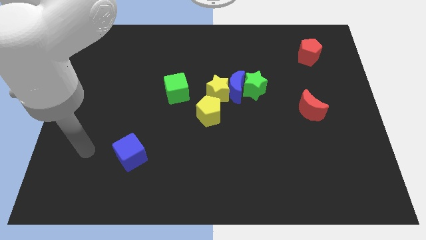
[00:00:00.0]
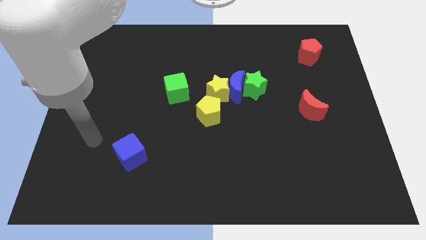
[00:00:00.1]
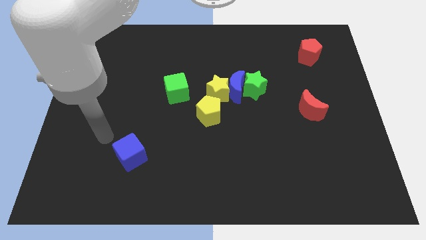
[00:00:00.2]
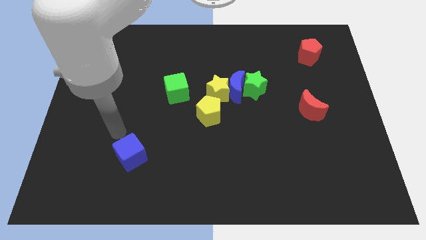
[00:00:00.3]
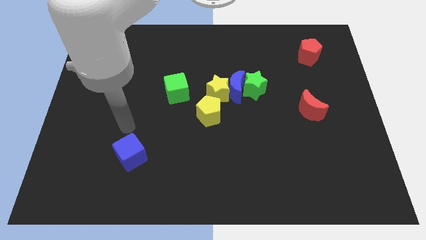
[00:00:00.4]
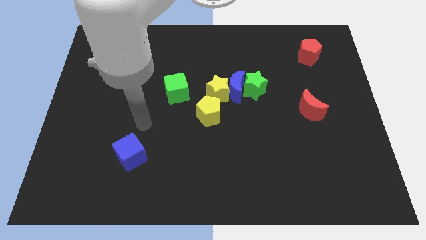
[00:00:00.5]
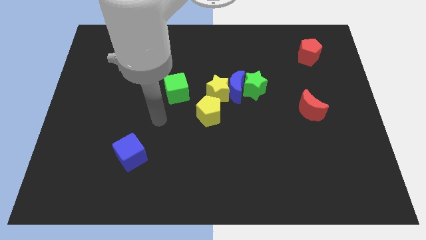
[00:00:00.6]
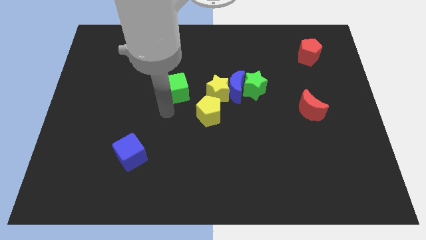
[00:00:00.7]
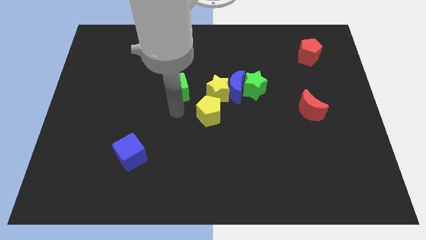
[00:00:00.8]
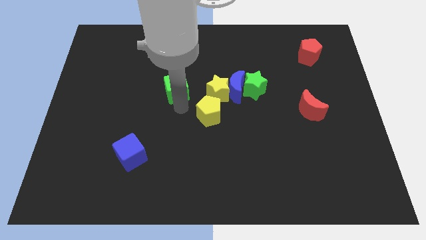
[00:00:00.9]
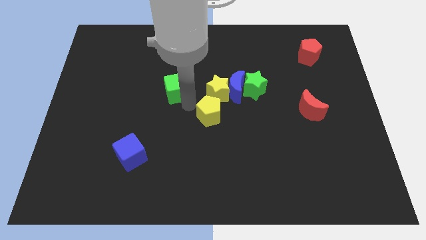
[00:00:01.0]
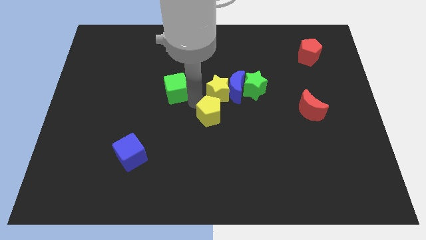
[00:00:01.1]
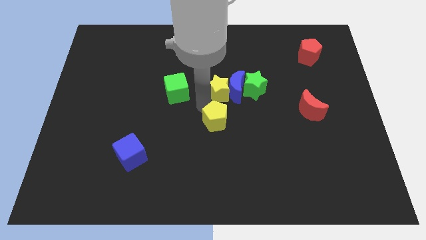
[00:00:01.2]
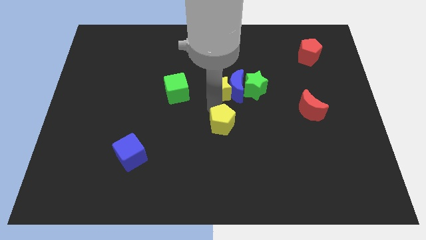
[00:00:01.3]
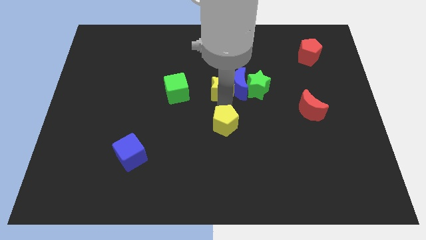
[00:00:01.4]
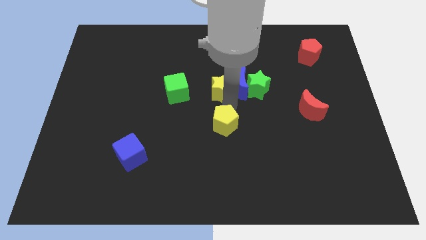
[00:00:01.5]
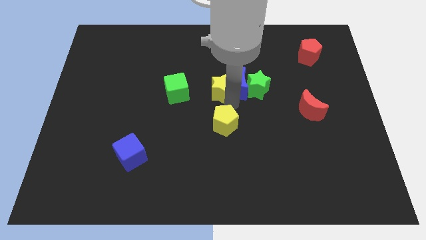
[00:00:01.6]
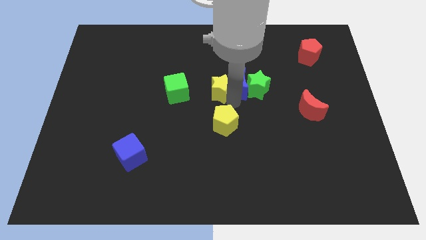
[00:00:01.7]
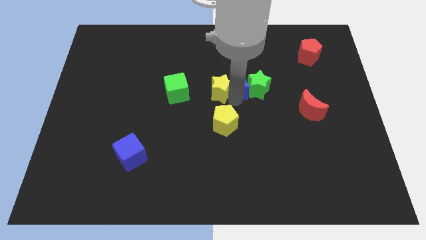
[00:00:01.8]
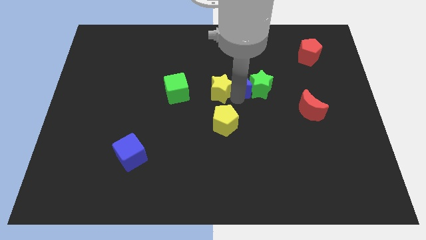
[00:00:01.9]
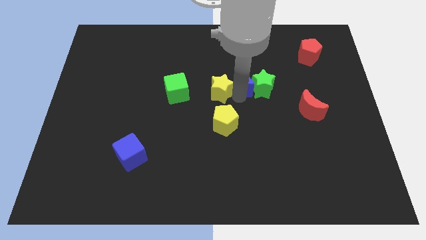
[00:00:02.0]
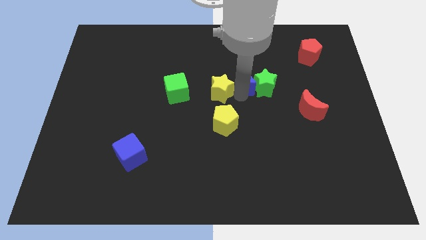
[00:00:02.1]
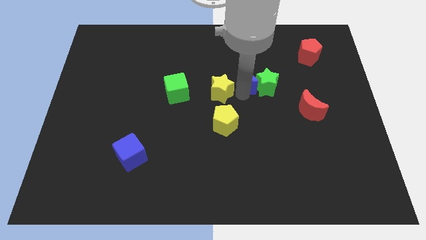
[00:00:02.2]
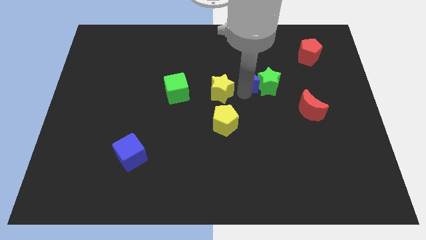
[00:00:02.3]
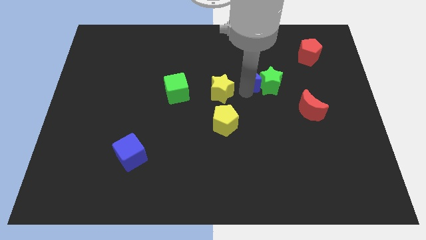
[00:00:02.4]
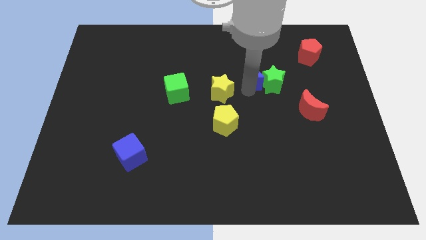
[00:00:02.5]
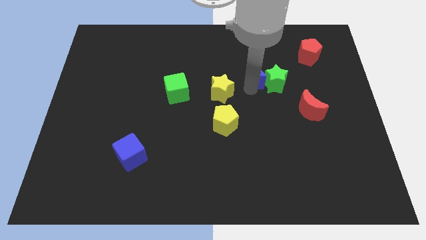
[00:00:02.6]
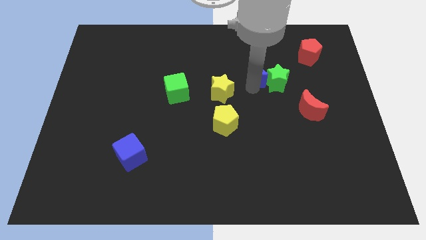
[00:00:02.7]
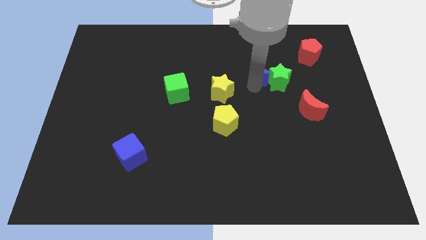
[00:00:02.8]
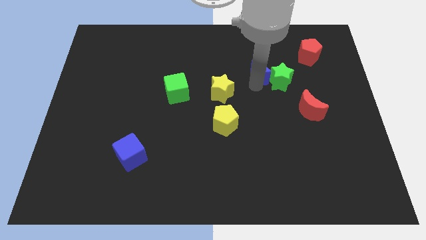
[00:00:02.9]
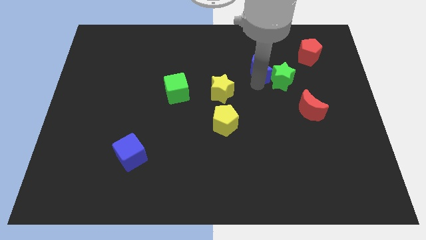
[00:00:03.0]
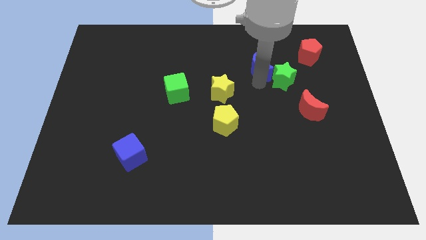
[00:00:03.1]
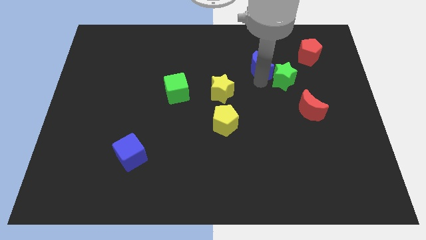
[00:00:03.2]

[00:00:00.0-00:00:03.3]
move the blue moon away from the group

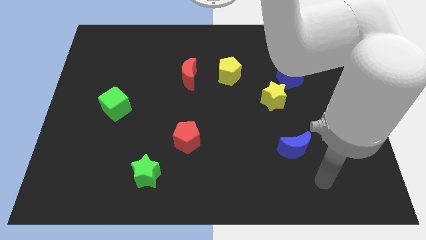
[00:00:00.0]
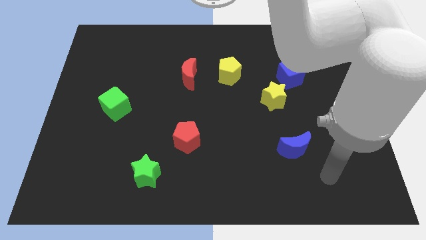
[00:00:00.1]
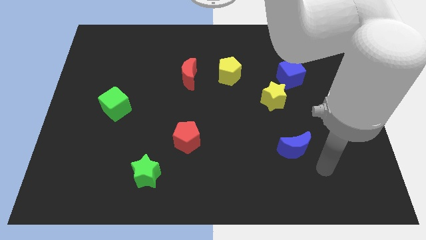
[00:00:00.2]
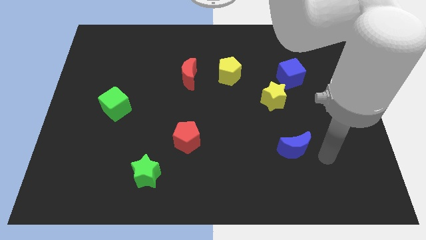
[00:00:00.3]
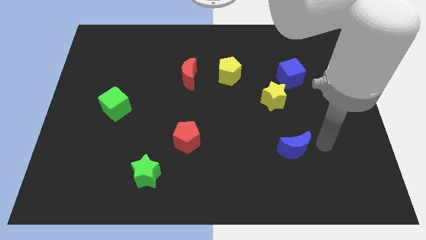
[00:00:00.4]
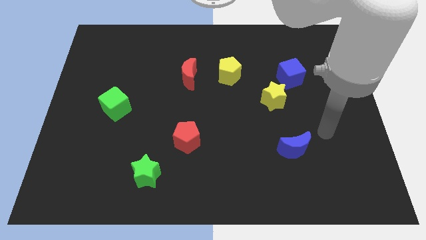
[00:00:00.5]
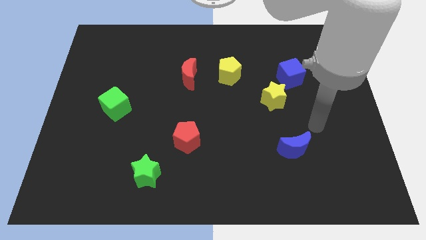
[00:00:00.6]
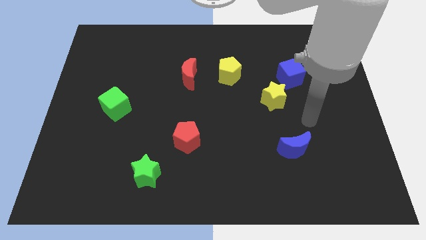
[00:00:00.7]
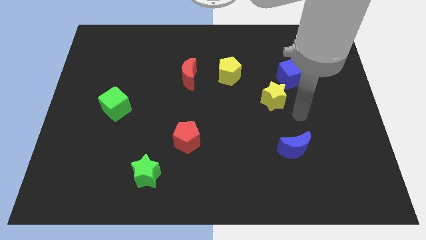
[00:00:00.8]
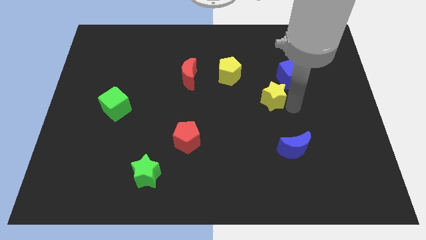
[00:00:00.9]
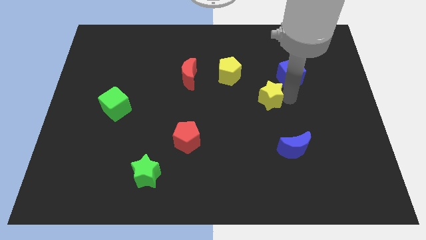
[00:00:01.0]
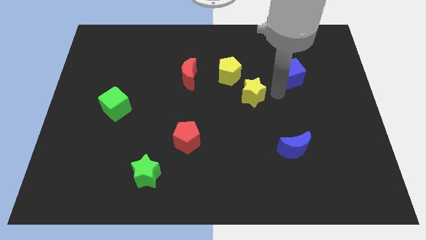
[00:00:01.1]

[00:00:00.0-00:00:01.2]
pull the blue cube apart from the yellow star

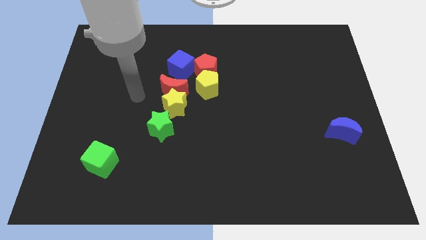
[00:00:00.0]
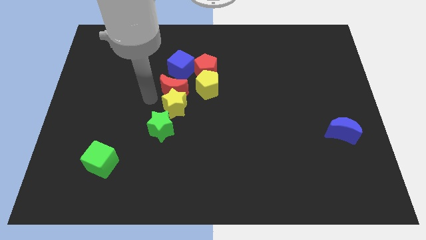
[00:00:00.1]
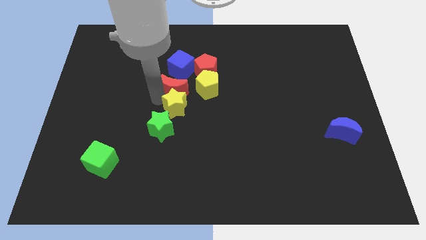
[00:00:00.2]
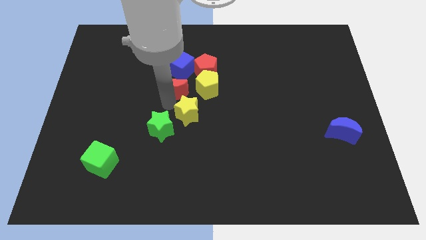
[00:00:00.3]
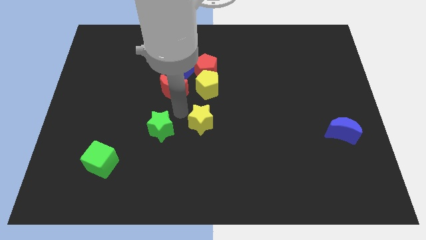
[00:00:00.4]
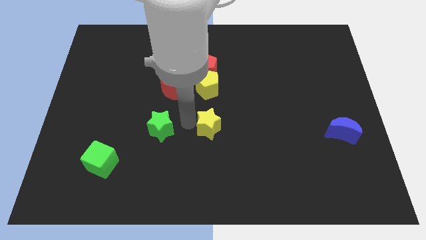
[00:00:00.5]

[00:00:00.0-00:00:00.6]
separate the green star from the yellow star

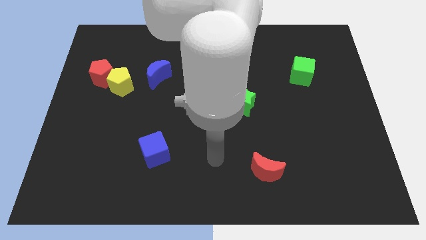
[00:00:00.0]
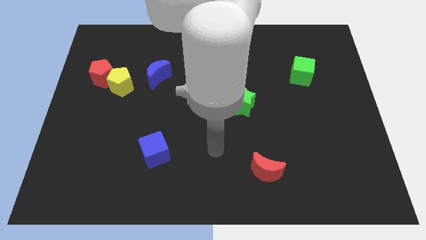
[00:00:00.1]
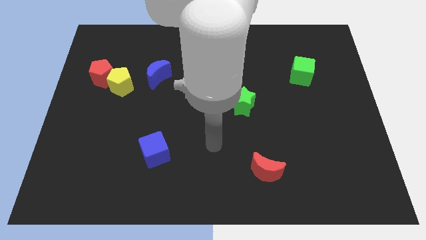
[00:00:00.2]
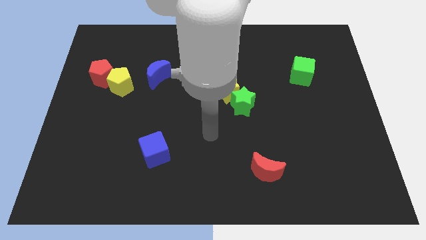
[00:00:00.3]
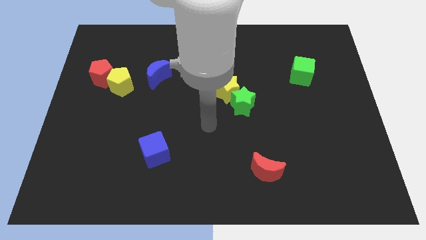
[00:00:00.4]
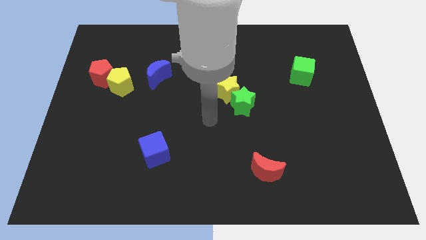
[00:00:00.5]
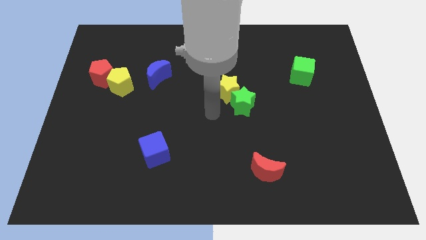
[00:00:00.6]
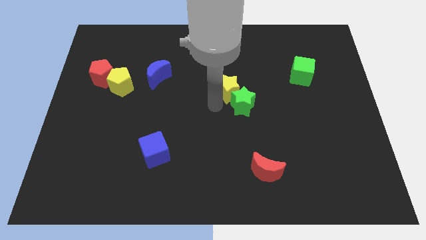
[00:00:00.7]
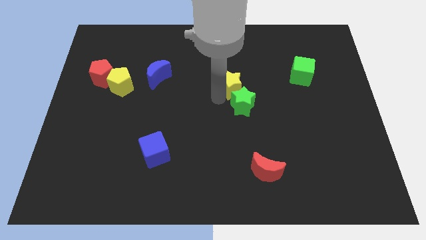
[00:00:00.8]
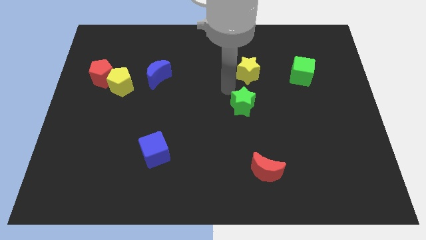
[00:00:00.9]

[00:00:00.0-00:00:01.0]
pull the green star apart from the yellow star

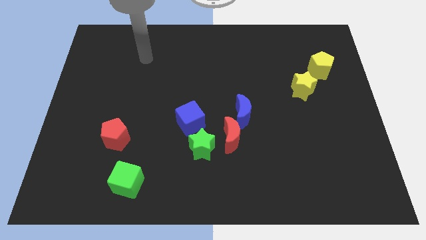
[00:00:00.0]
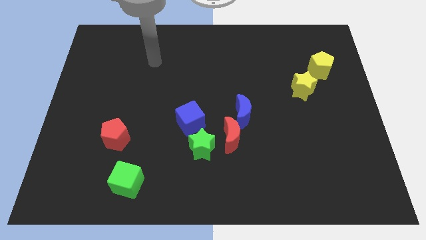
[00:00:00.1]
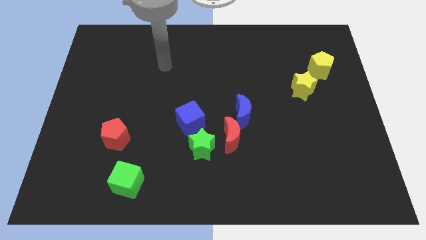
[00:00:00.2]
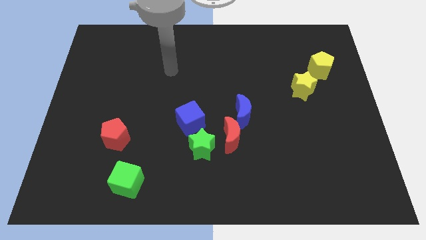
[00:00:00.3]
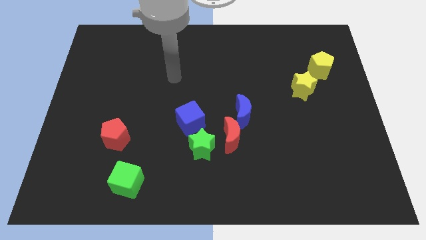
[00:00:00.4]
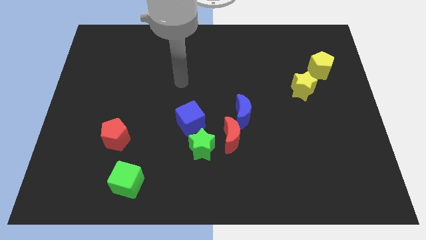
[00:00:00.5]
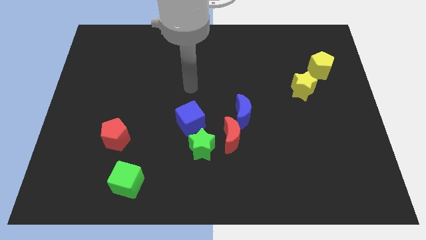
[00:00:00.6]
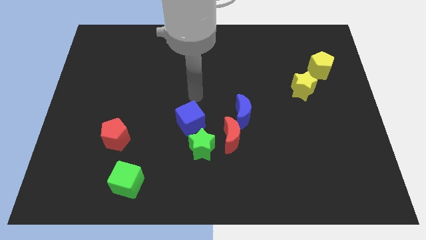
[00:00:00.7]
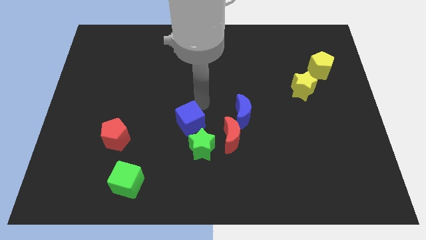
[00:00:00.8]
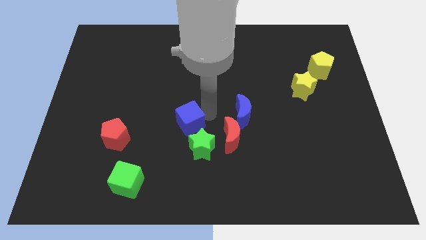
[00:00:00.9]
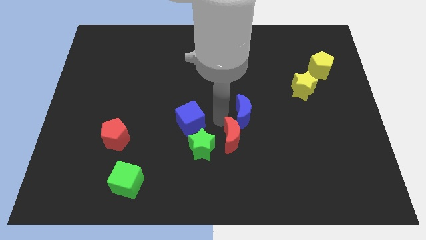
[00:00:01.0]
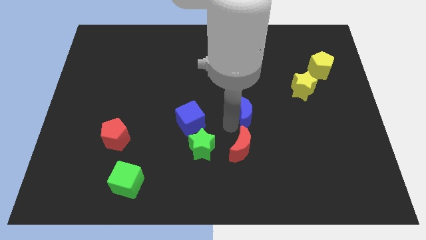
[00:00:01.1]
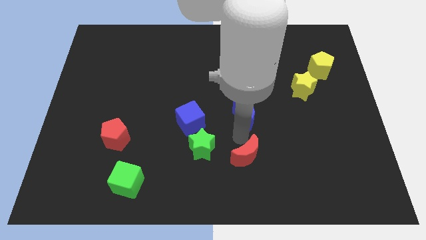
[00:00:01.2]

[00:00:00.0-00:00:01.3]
separate the blue moon from the red moon

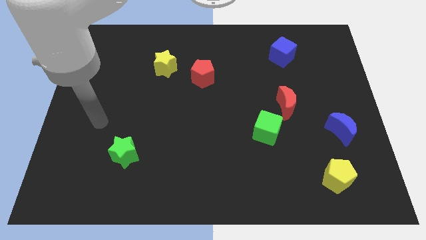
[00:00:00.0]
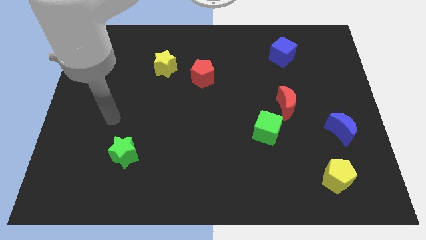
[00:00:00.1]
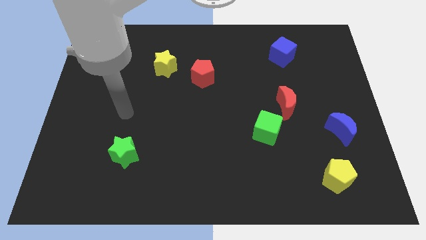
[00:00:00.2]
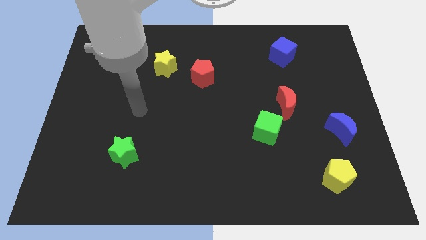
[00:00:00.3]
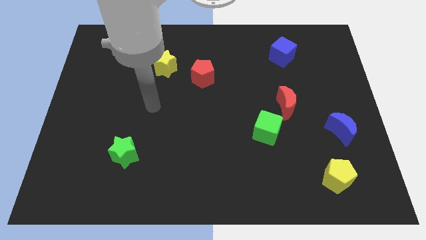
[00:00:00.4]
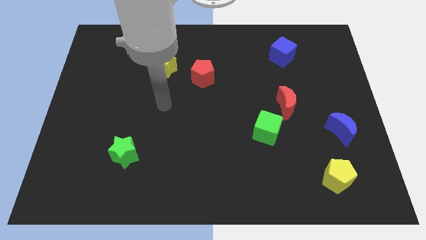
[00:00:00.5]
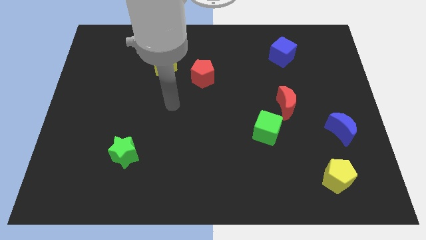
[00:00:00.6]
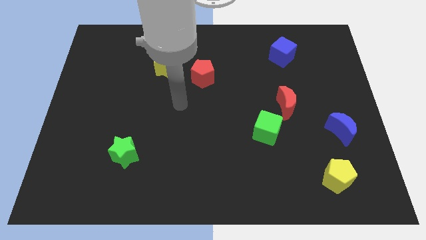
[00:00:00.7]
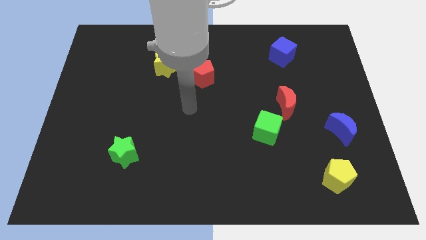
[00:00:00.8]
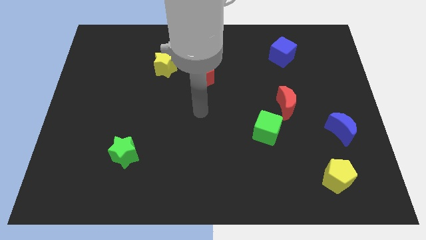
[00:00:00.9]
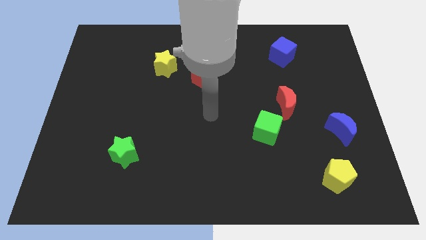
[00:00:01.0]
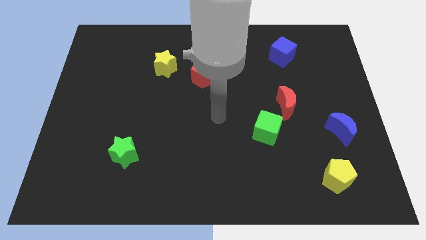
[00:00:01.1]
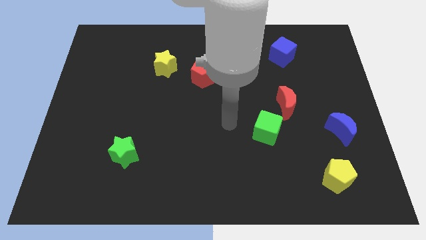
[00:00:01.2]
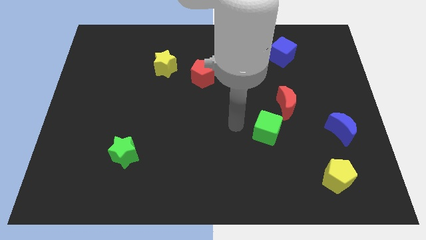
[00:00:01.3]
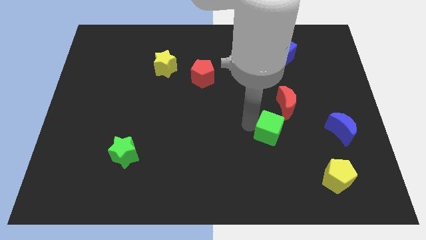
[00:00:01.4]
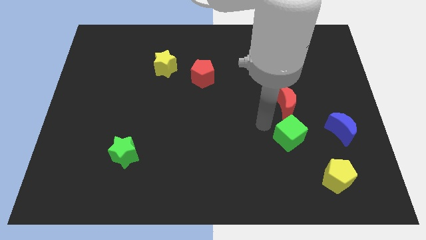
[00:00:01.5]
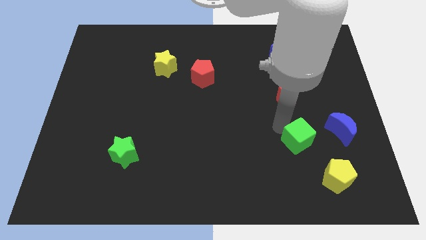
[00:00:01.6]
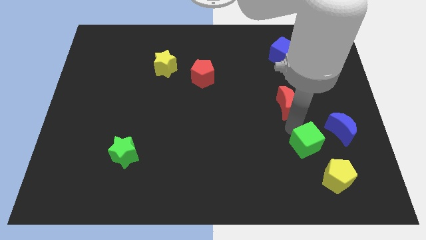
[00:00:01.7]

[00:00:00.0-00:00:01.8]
pull the red moon apart from the green cube

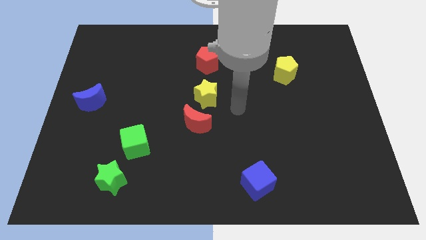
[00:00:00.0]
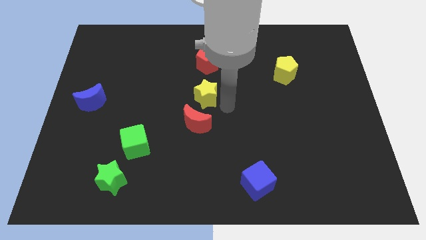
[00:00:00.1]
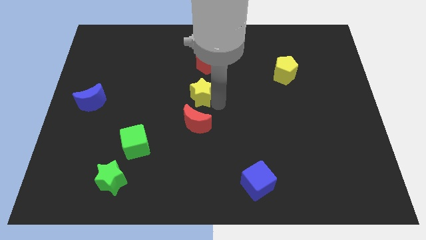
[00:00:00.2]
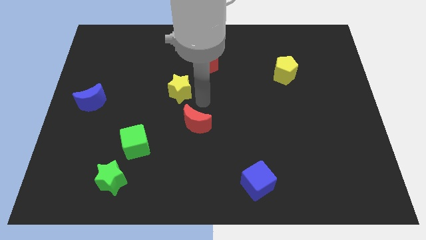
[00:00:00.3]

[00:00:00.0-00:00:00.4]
separate the red moon from the yellow star
